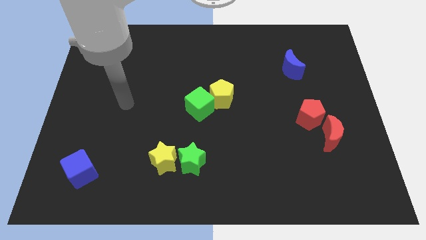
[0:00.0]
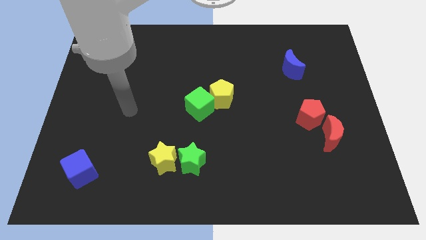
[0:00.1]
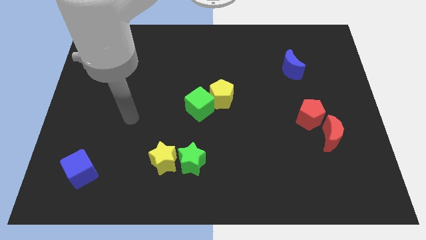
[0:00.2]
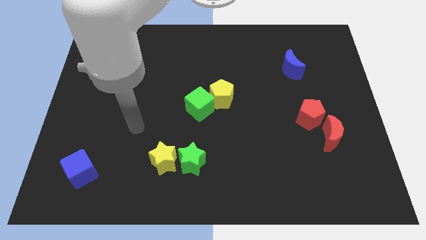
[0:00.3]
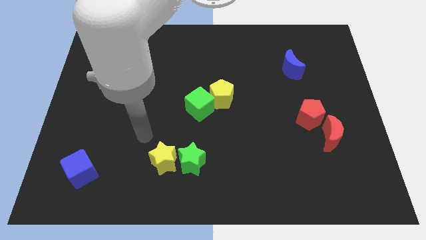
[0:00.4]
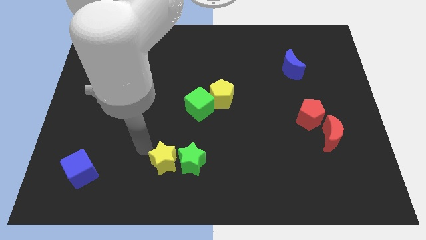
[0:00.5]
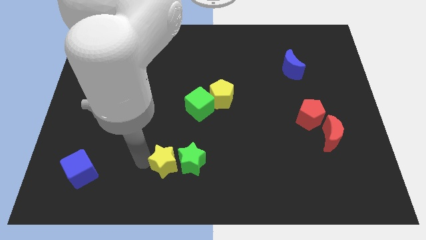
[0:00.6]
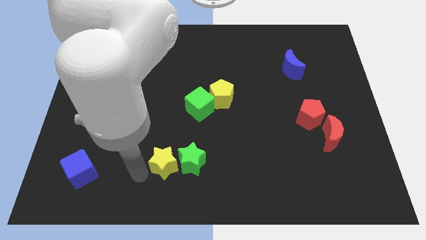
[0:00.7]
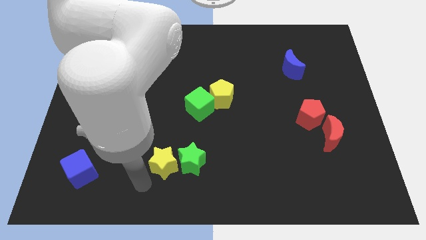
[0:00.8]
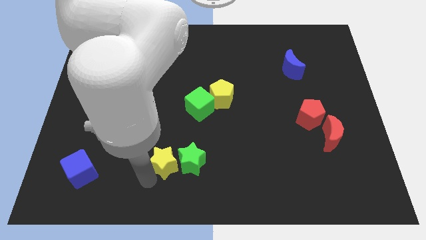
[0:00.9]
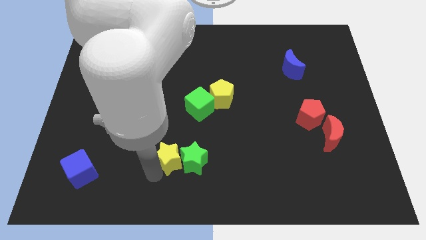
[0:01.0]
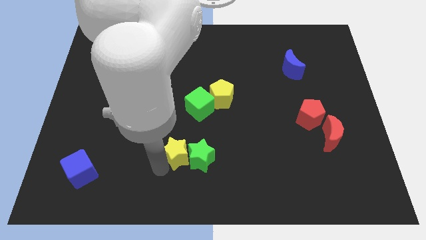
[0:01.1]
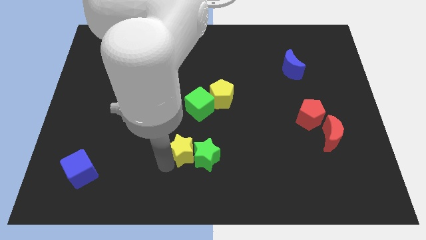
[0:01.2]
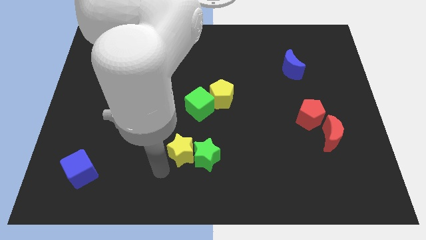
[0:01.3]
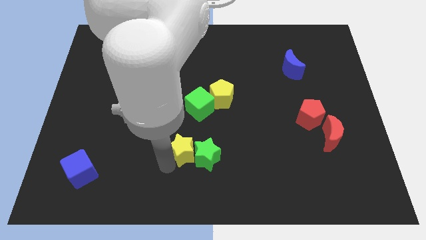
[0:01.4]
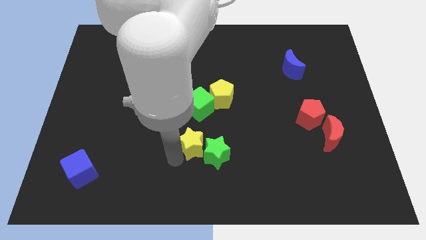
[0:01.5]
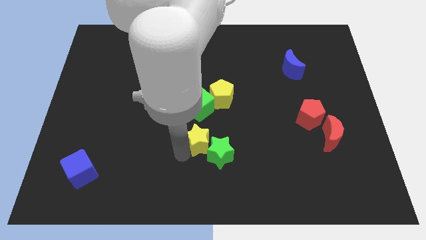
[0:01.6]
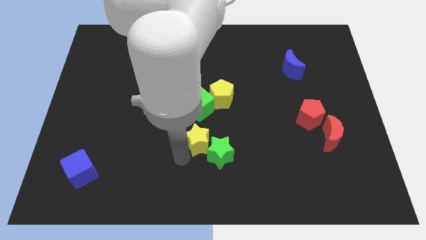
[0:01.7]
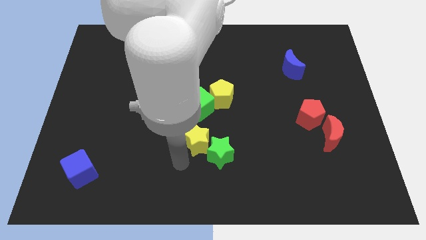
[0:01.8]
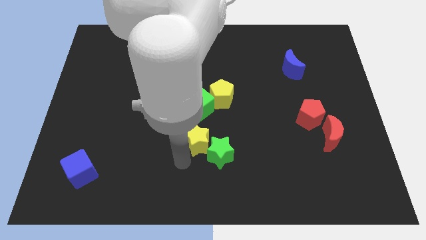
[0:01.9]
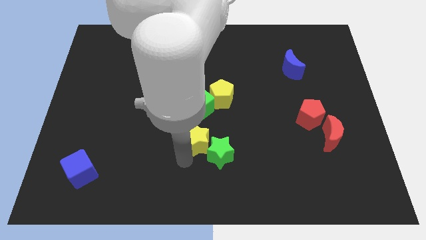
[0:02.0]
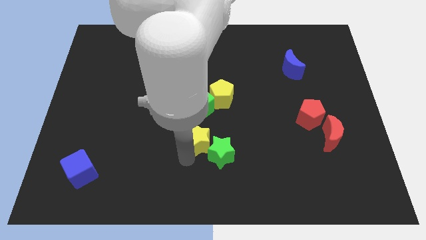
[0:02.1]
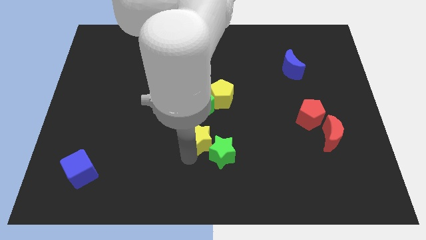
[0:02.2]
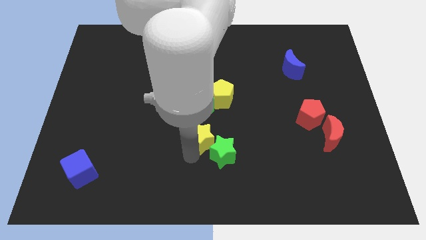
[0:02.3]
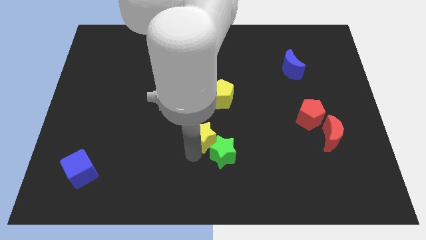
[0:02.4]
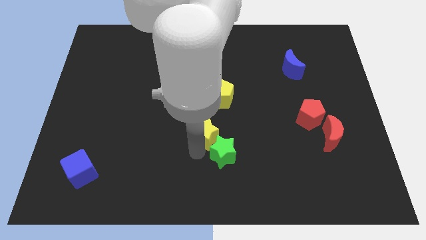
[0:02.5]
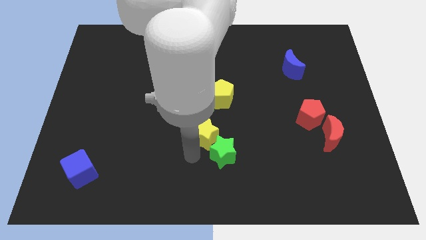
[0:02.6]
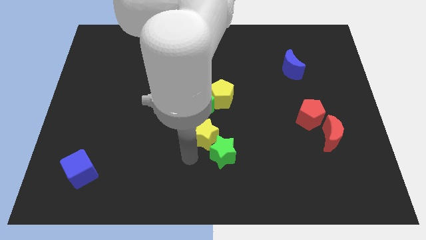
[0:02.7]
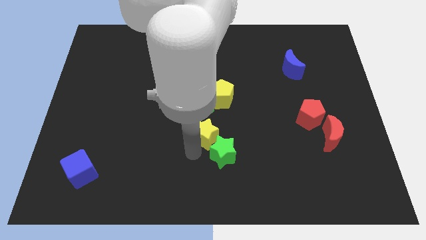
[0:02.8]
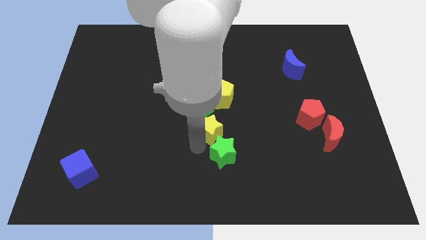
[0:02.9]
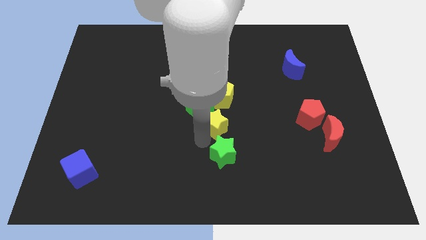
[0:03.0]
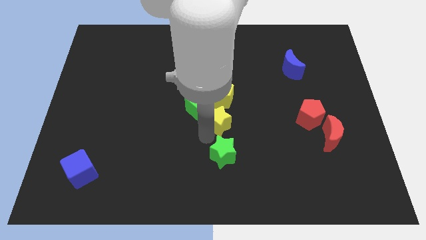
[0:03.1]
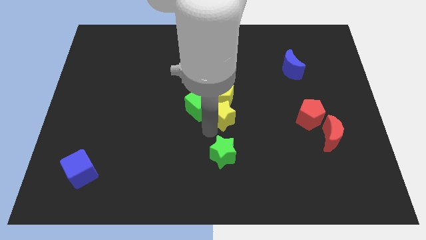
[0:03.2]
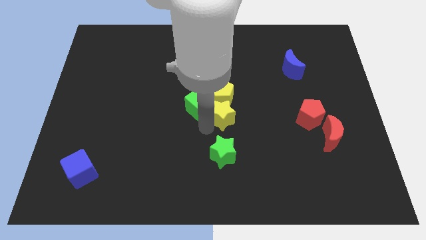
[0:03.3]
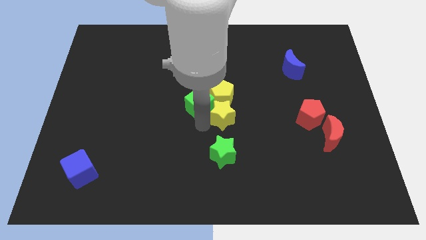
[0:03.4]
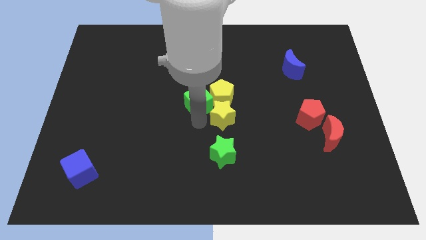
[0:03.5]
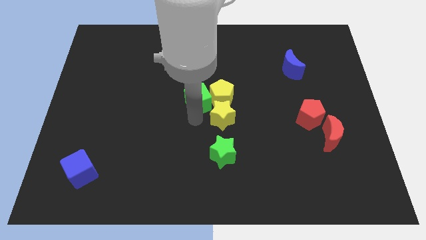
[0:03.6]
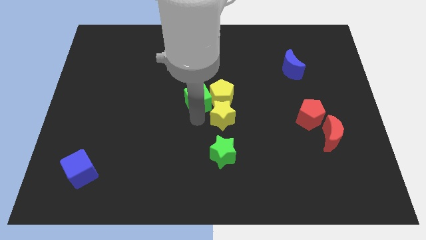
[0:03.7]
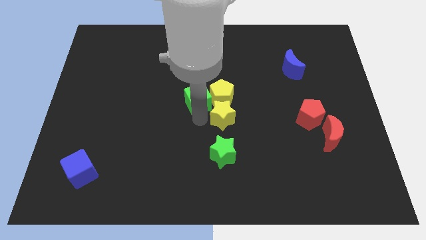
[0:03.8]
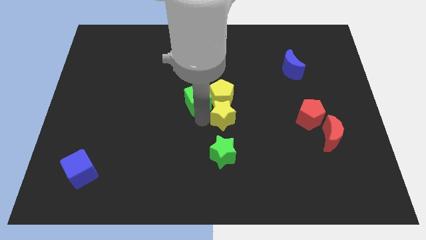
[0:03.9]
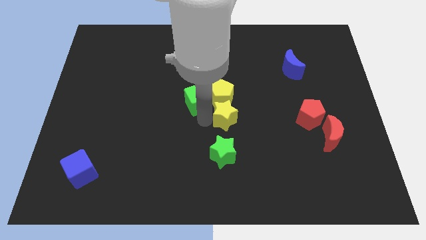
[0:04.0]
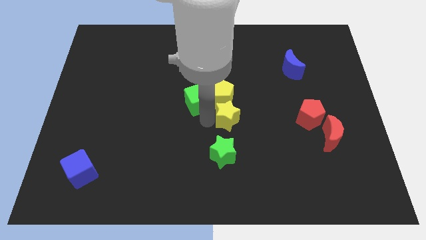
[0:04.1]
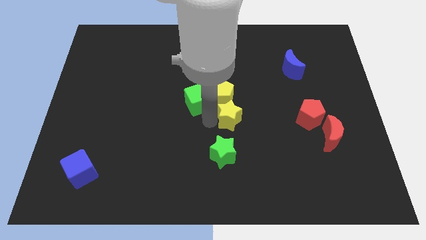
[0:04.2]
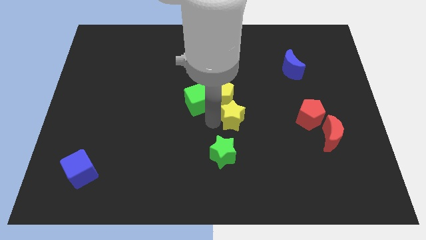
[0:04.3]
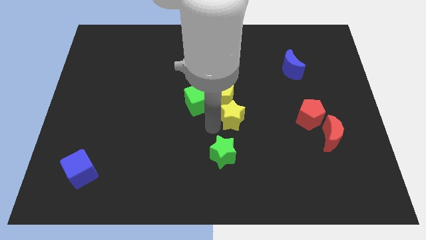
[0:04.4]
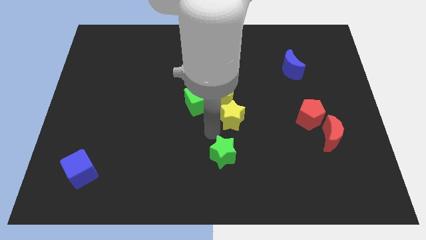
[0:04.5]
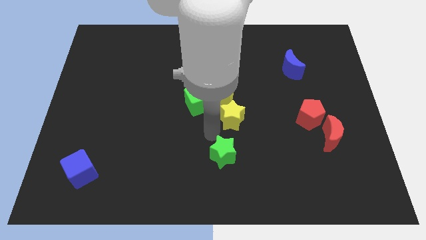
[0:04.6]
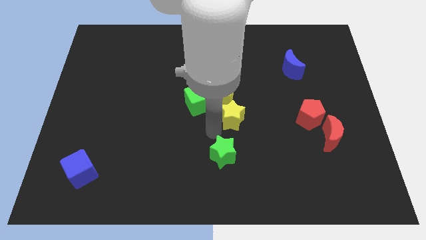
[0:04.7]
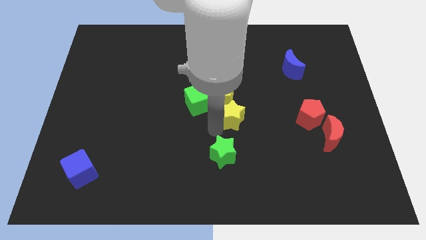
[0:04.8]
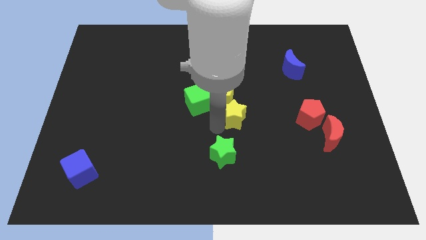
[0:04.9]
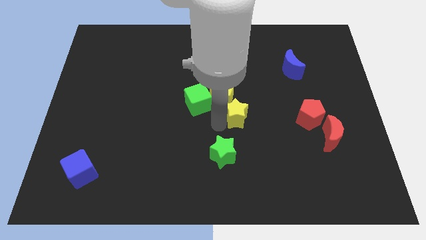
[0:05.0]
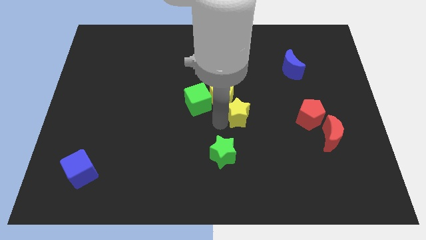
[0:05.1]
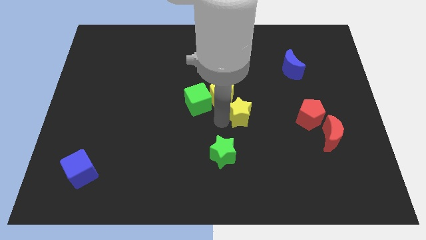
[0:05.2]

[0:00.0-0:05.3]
slide the yellow star upwards and then right

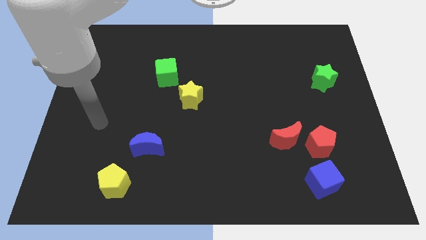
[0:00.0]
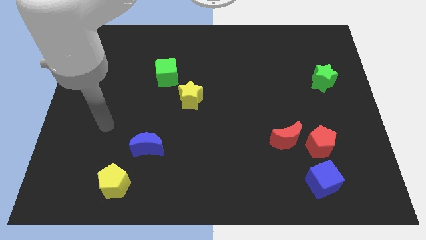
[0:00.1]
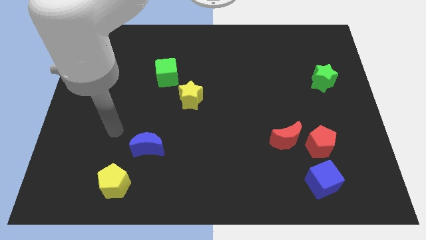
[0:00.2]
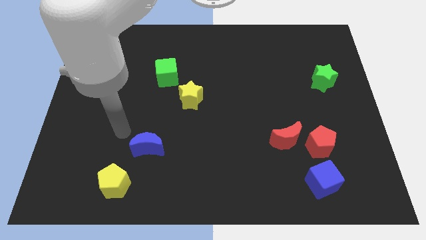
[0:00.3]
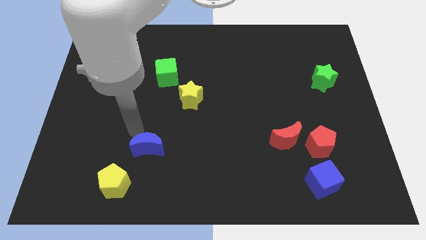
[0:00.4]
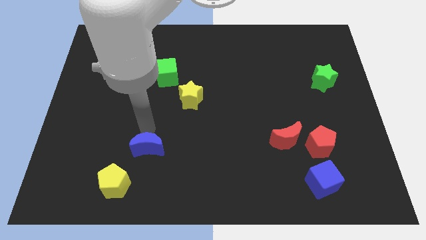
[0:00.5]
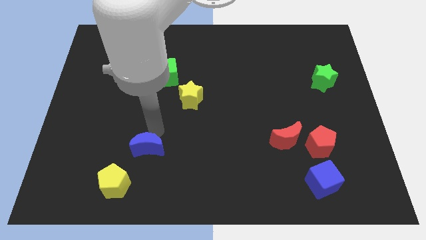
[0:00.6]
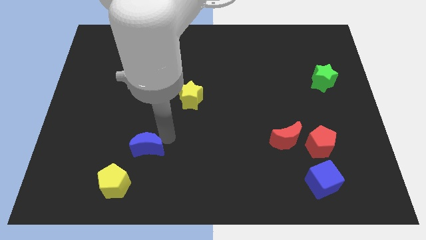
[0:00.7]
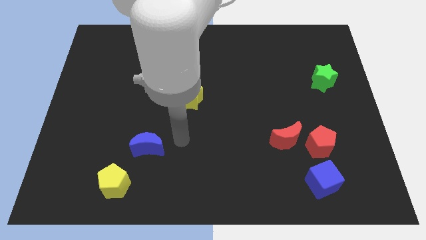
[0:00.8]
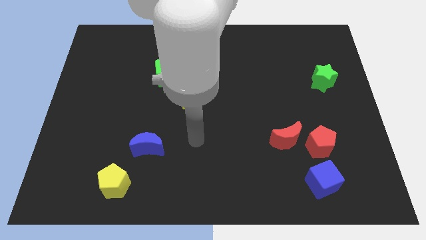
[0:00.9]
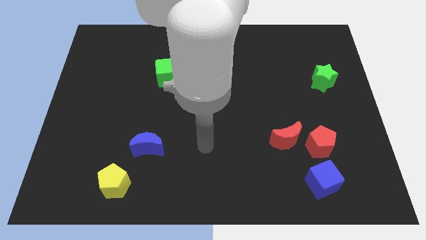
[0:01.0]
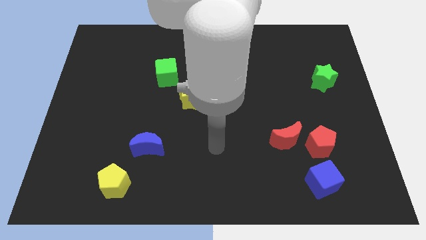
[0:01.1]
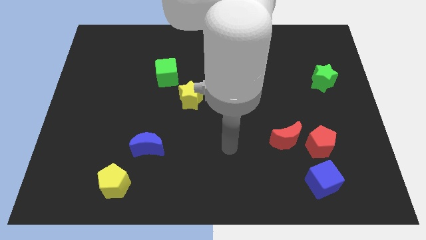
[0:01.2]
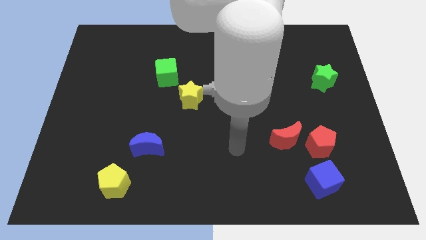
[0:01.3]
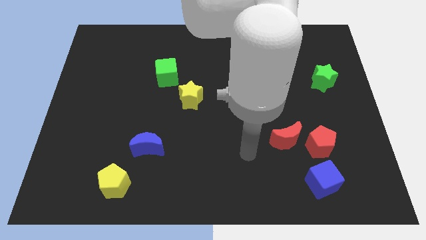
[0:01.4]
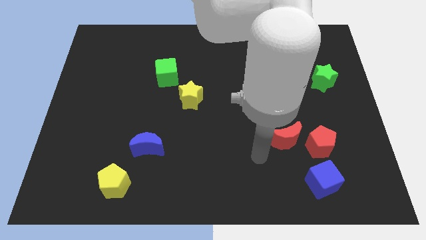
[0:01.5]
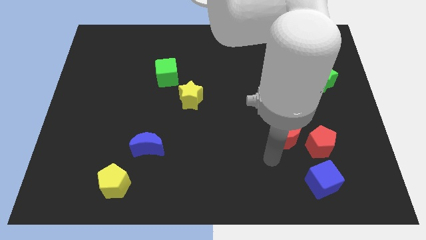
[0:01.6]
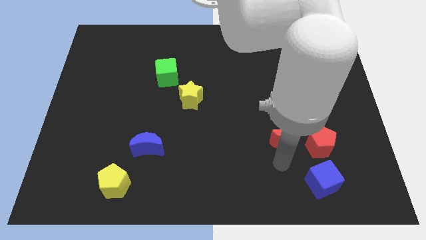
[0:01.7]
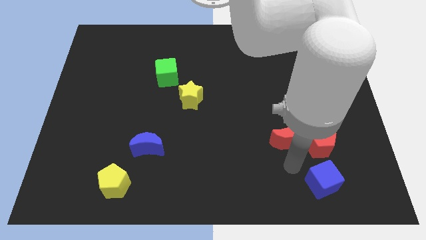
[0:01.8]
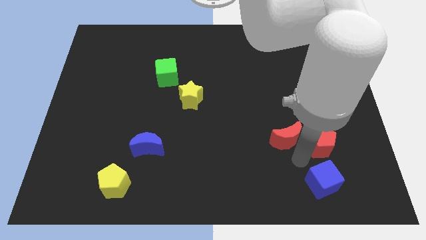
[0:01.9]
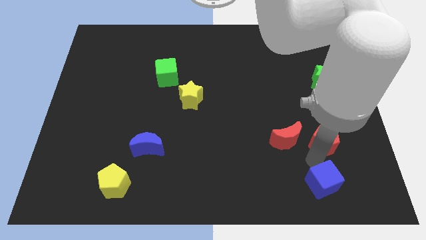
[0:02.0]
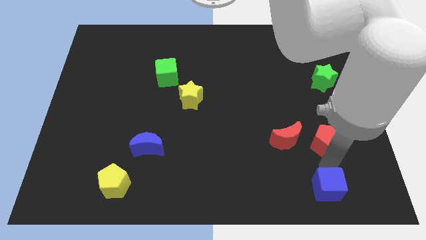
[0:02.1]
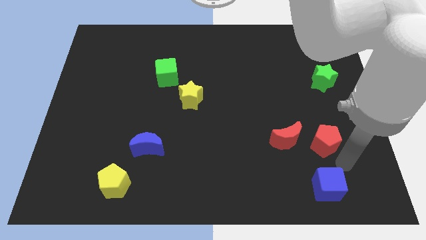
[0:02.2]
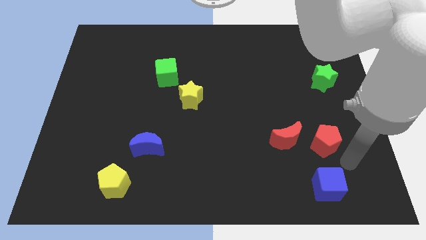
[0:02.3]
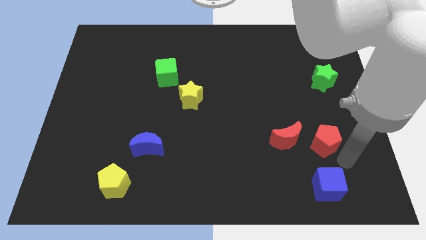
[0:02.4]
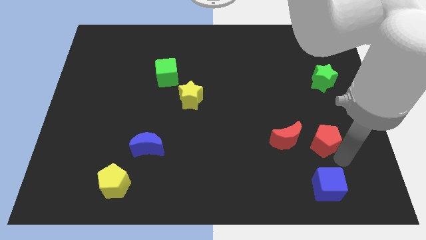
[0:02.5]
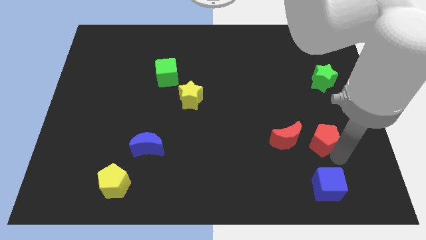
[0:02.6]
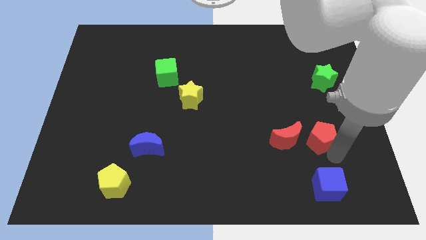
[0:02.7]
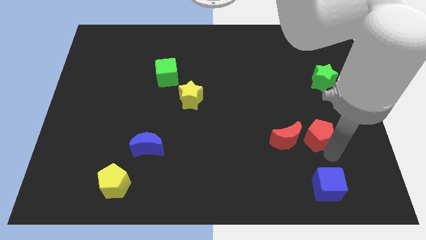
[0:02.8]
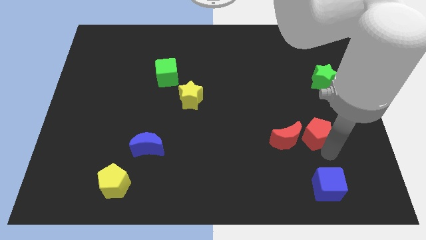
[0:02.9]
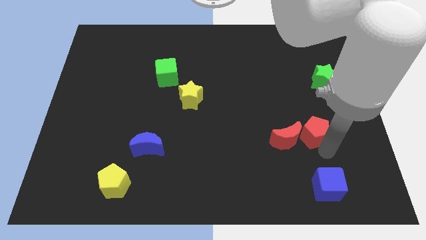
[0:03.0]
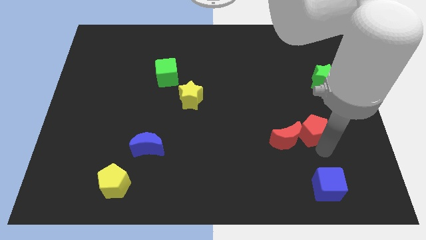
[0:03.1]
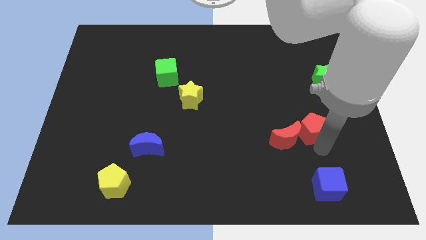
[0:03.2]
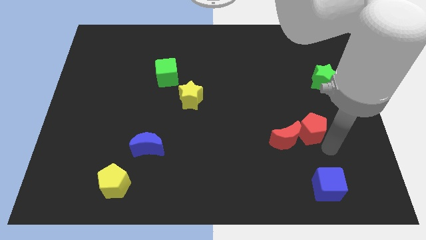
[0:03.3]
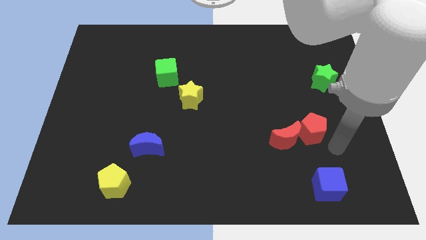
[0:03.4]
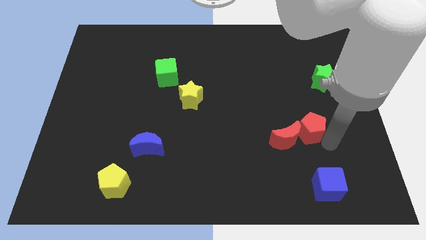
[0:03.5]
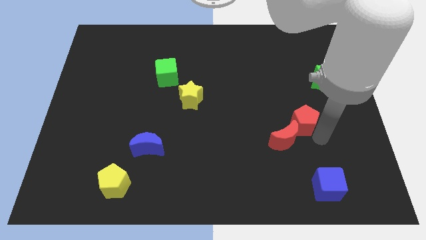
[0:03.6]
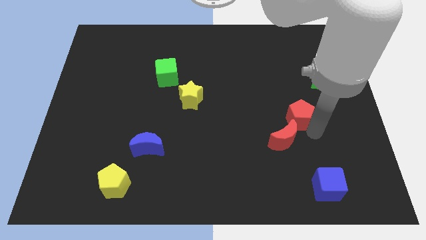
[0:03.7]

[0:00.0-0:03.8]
push the red pentagon slightly upwards and left diagonally
